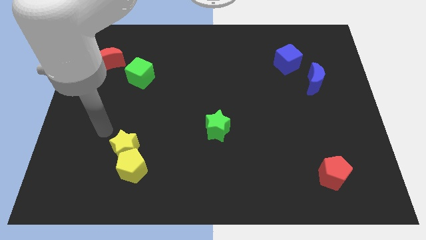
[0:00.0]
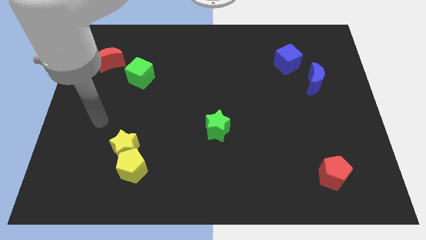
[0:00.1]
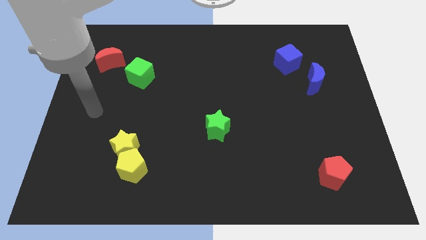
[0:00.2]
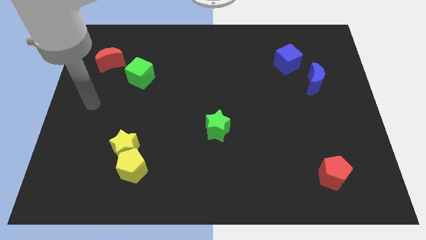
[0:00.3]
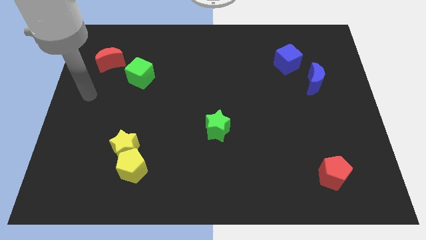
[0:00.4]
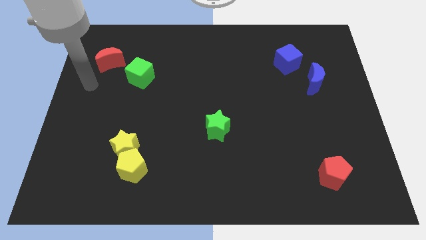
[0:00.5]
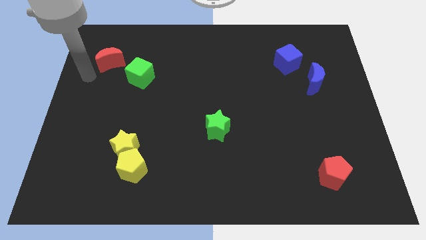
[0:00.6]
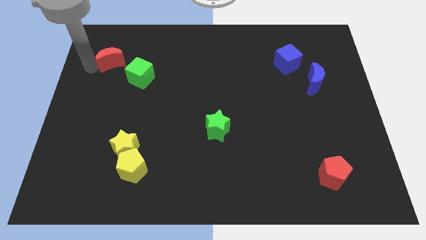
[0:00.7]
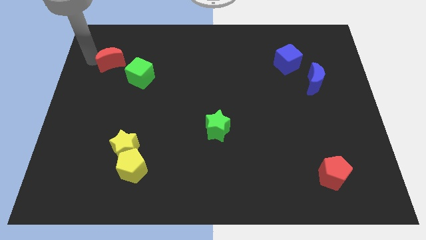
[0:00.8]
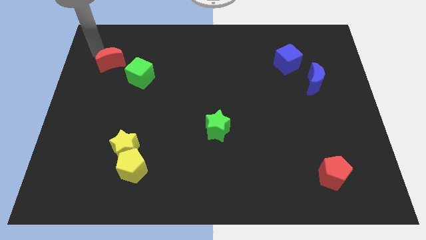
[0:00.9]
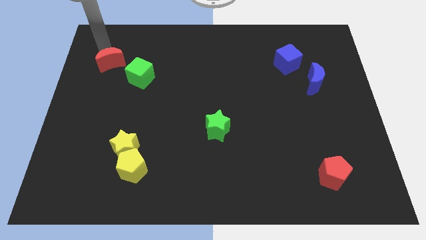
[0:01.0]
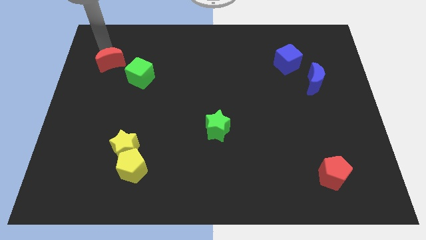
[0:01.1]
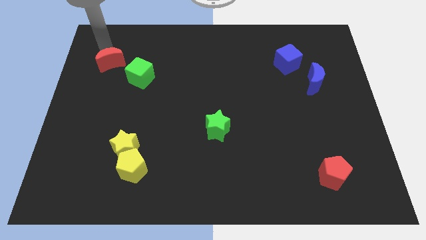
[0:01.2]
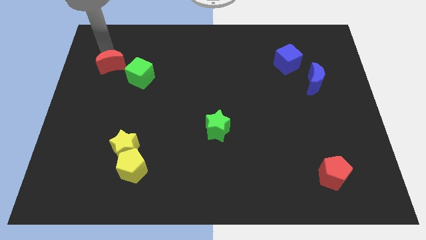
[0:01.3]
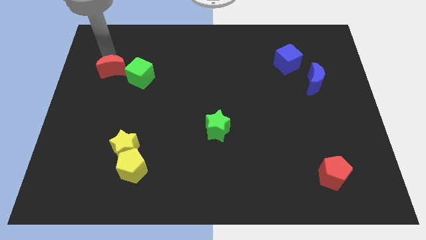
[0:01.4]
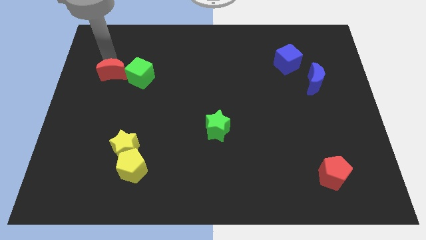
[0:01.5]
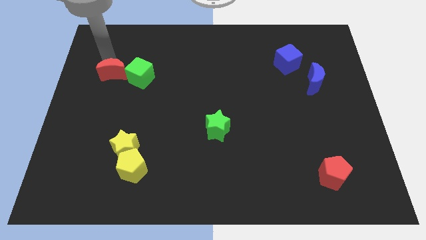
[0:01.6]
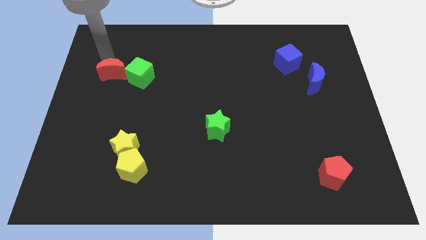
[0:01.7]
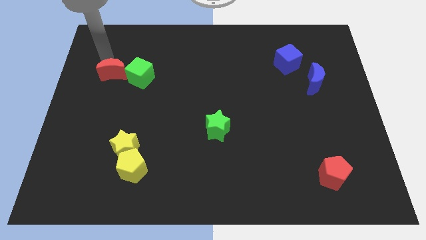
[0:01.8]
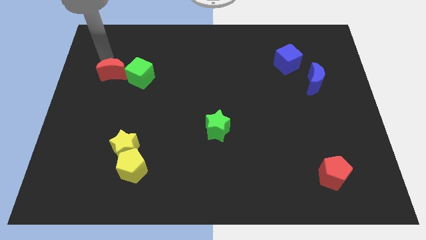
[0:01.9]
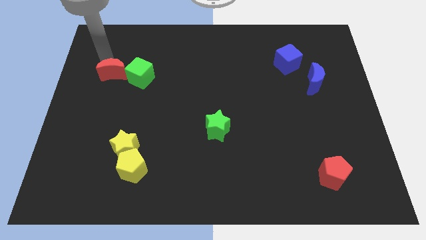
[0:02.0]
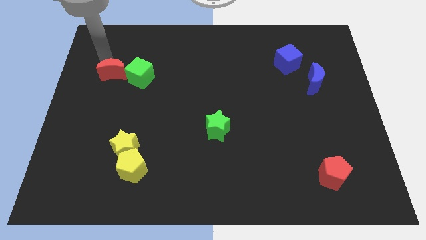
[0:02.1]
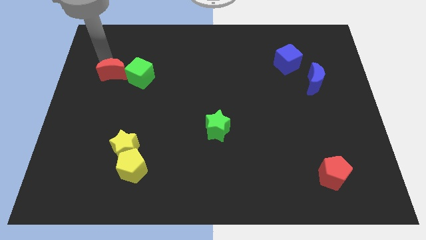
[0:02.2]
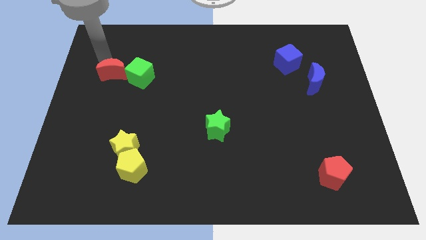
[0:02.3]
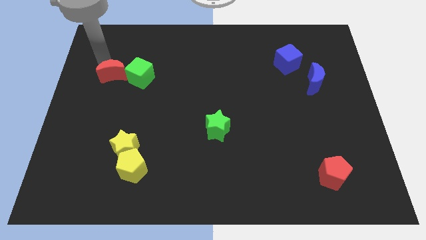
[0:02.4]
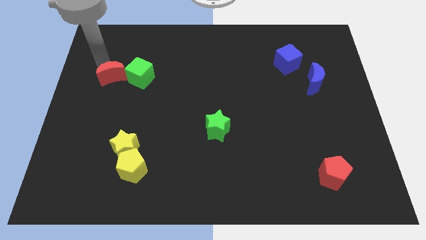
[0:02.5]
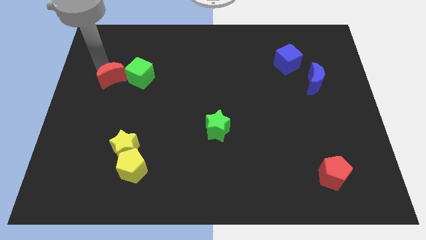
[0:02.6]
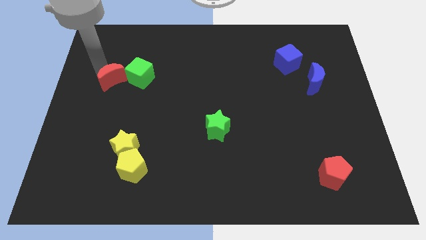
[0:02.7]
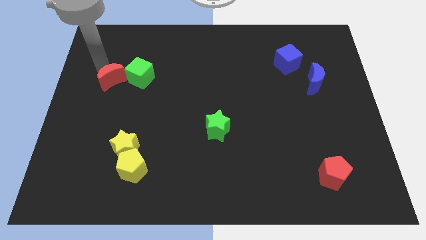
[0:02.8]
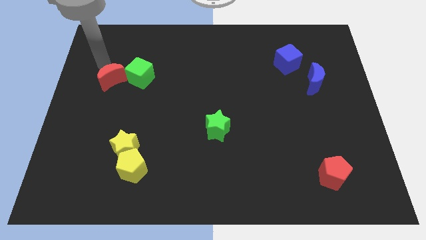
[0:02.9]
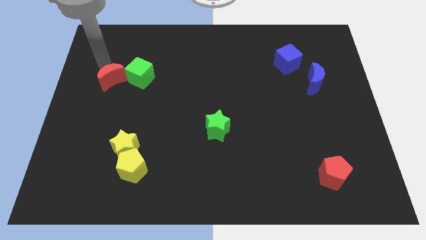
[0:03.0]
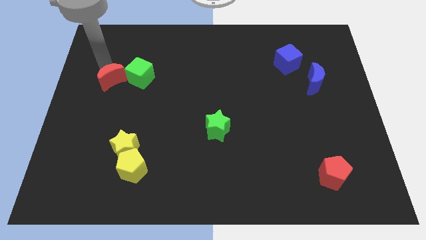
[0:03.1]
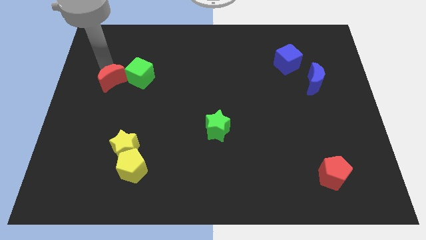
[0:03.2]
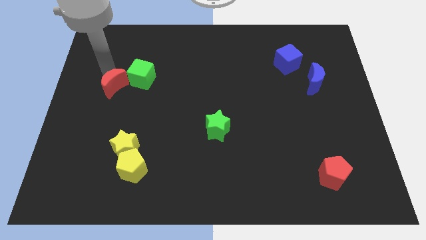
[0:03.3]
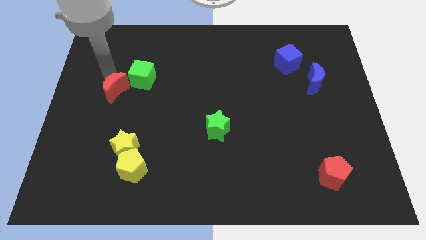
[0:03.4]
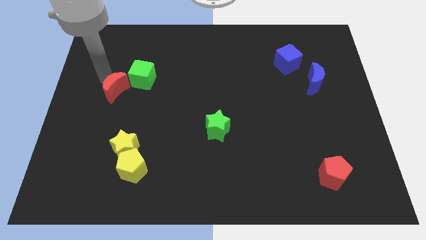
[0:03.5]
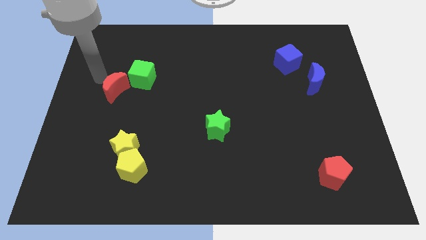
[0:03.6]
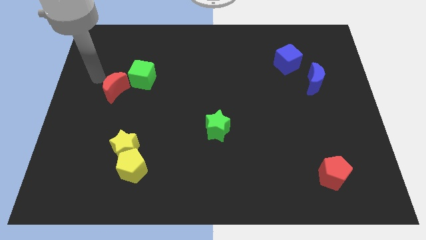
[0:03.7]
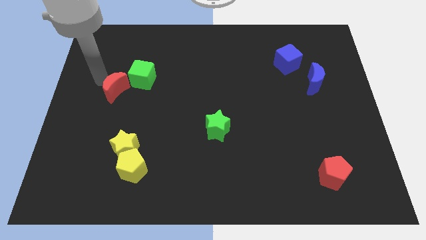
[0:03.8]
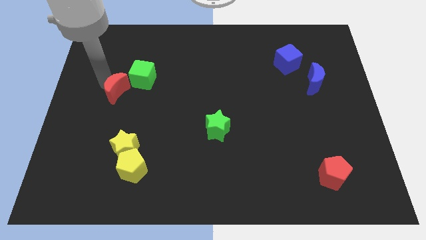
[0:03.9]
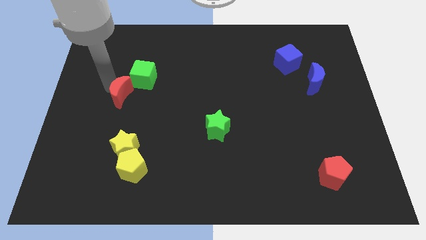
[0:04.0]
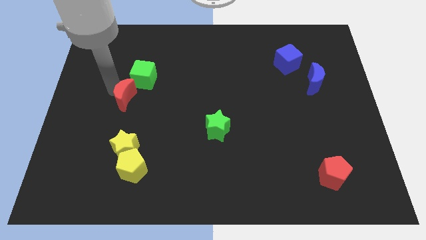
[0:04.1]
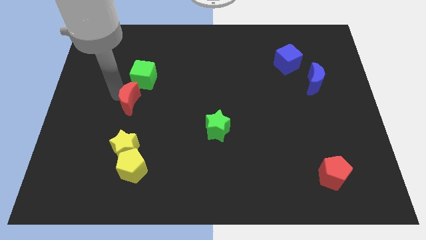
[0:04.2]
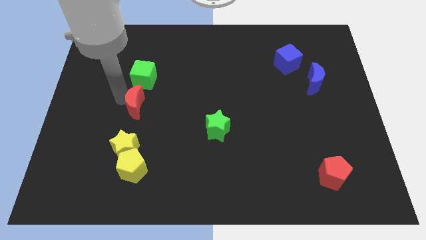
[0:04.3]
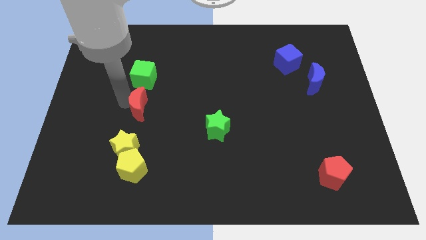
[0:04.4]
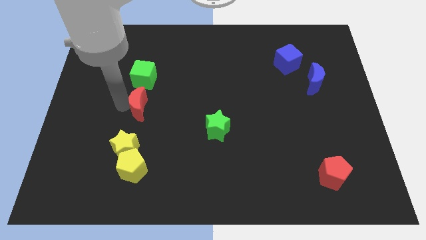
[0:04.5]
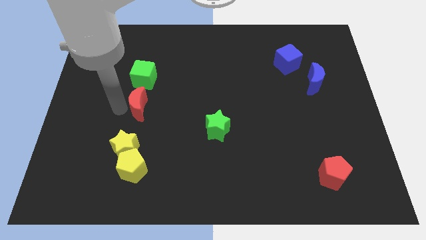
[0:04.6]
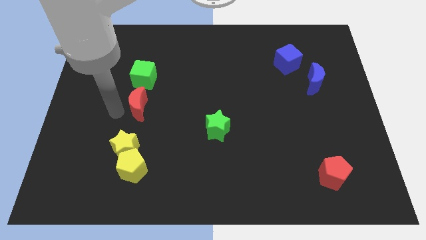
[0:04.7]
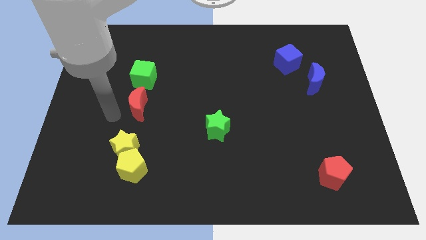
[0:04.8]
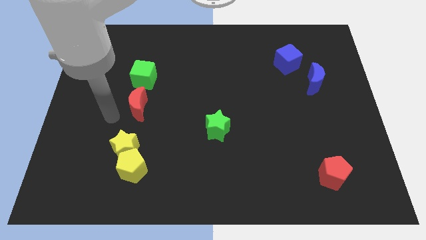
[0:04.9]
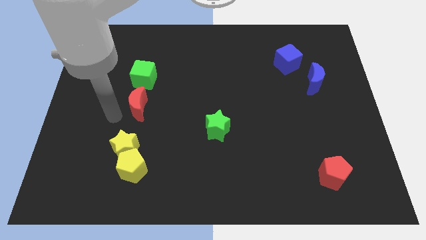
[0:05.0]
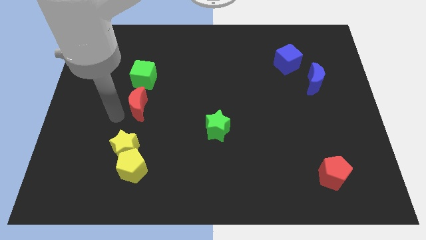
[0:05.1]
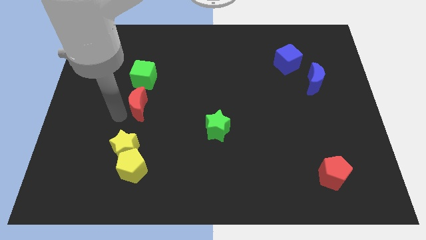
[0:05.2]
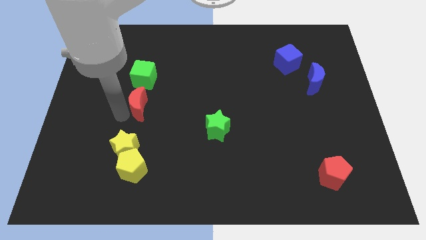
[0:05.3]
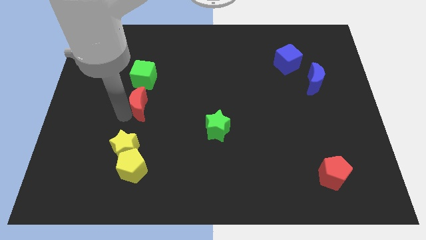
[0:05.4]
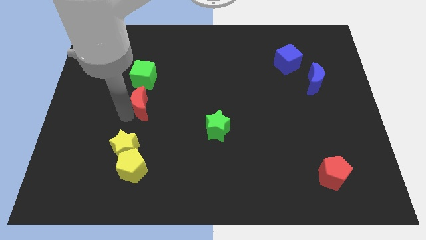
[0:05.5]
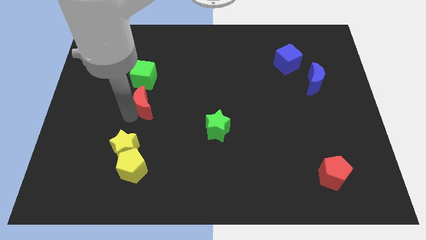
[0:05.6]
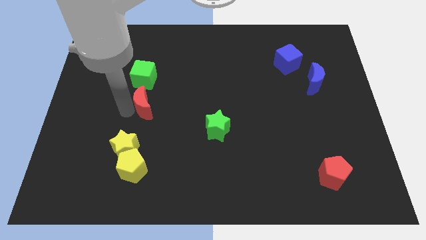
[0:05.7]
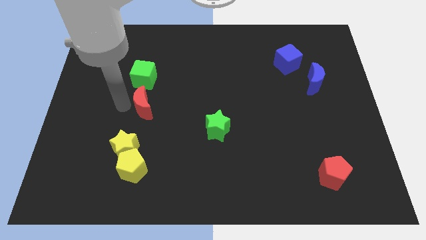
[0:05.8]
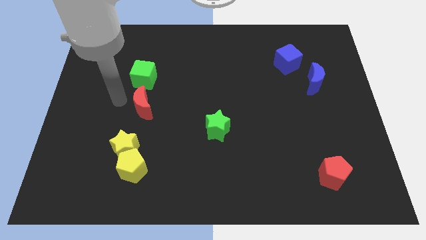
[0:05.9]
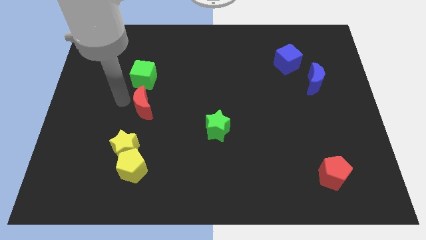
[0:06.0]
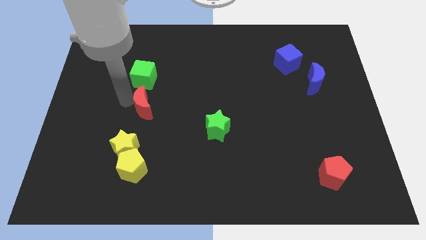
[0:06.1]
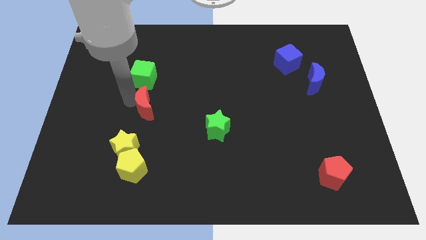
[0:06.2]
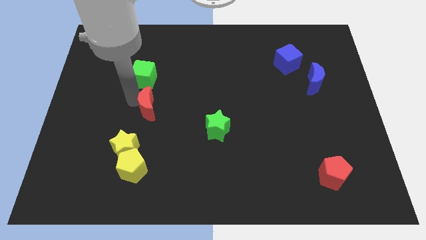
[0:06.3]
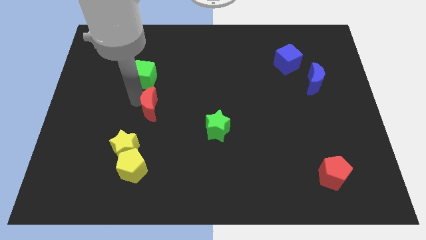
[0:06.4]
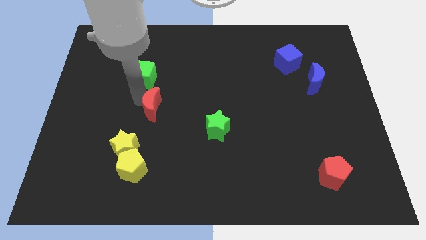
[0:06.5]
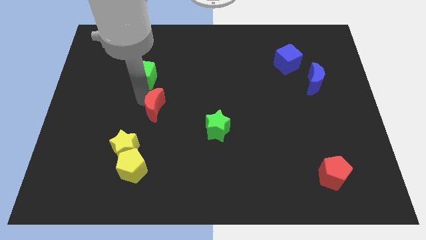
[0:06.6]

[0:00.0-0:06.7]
slide the red moon diagonally down and to the right

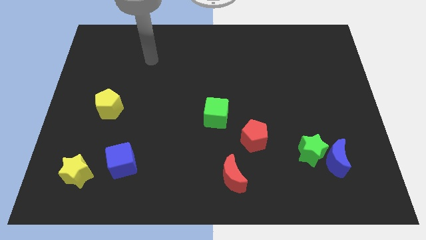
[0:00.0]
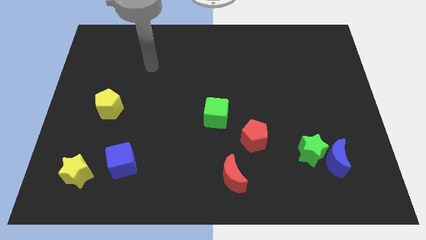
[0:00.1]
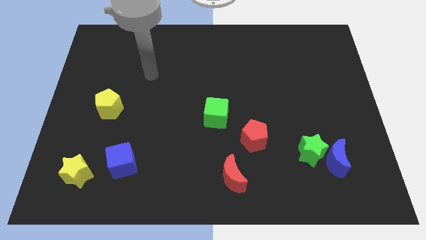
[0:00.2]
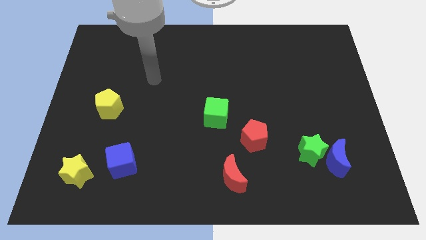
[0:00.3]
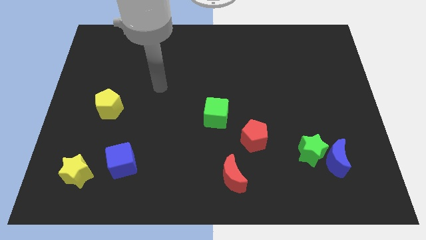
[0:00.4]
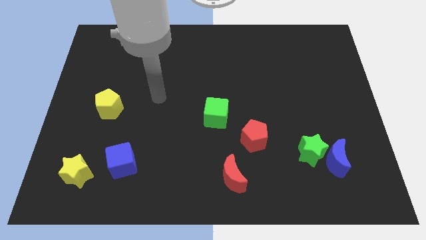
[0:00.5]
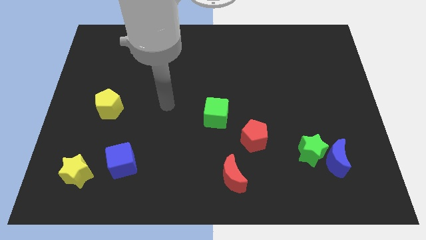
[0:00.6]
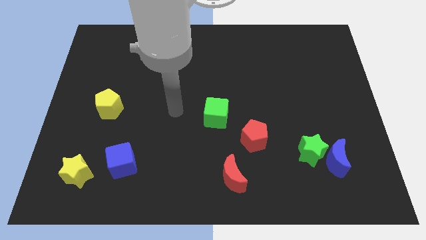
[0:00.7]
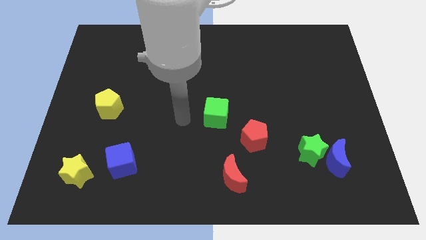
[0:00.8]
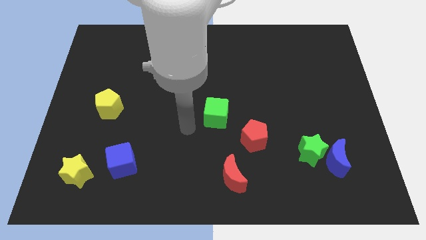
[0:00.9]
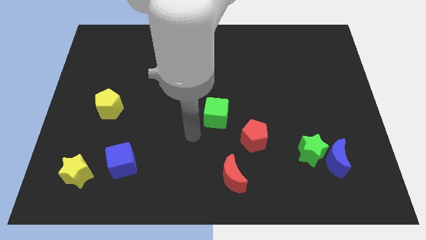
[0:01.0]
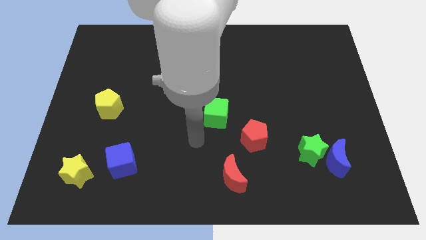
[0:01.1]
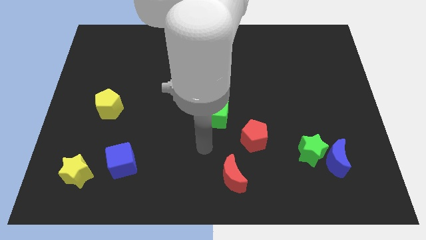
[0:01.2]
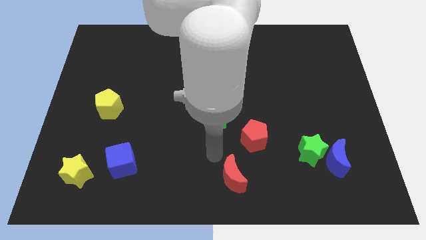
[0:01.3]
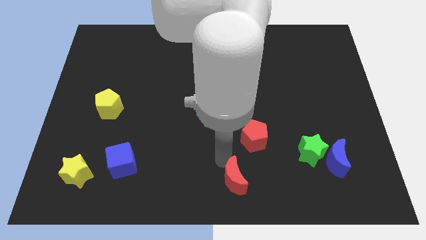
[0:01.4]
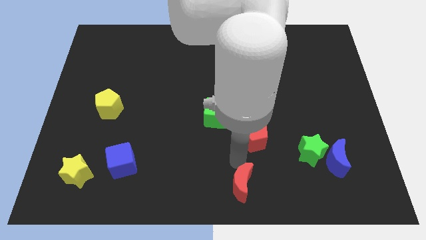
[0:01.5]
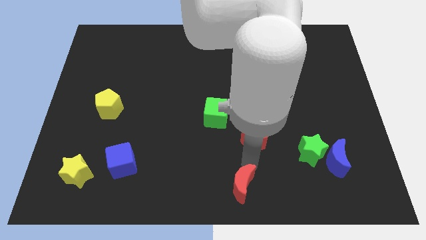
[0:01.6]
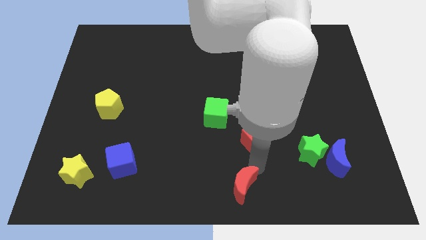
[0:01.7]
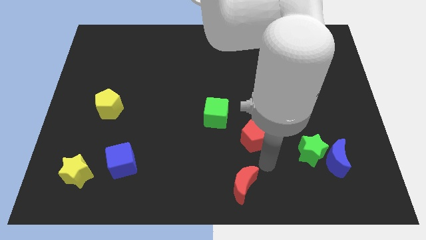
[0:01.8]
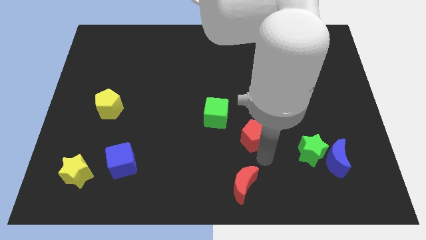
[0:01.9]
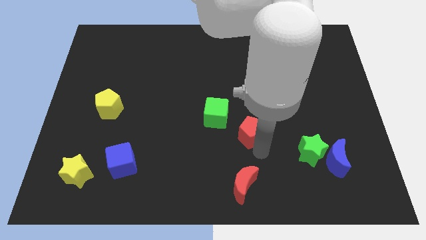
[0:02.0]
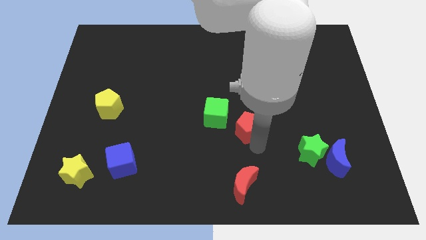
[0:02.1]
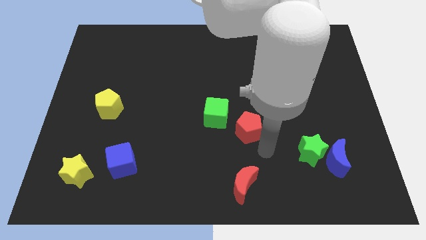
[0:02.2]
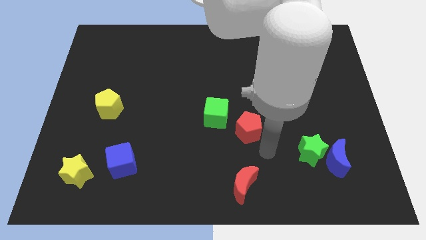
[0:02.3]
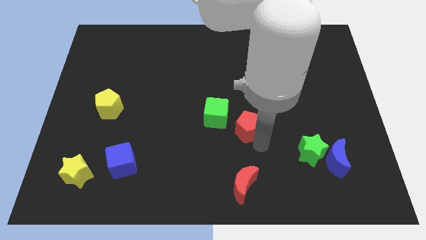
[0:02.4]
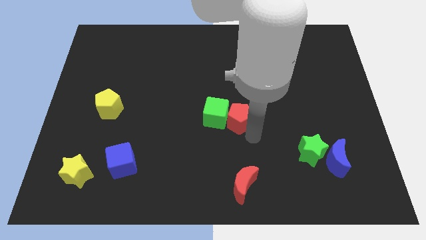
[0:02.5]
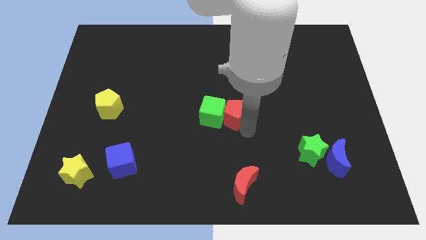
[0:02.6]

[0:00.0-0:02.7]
slightly slide the red pentagon up and to the left diagonally
